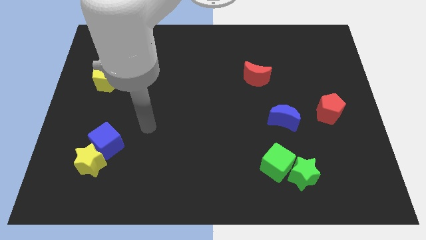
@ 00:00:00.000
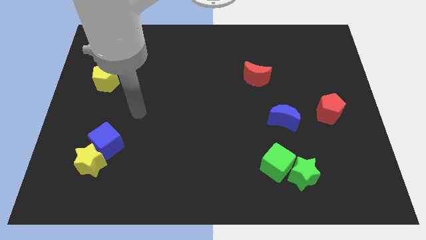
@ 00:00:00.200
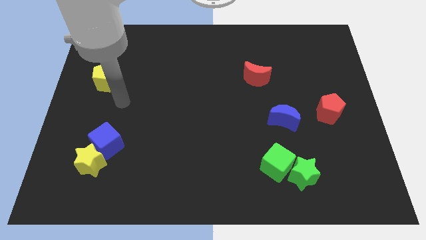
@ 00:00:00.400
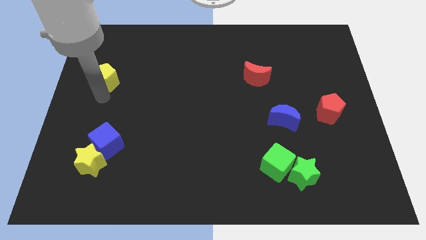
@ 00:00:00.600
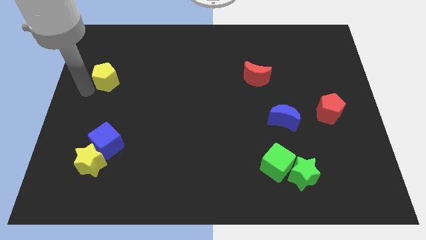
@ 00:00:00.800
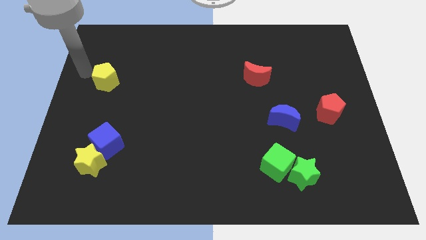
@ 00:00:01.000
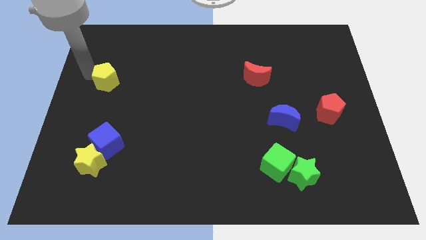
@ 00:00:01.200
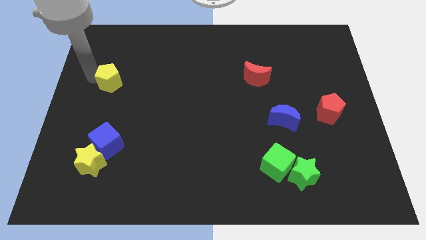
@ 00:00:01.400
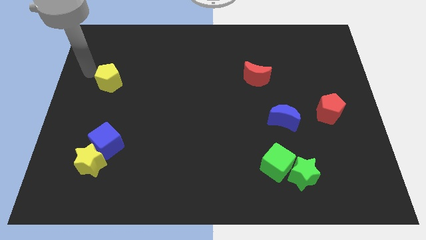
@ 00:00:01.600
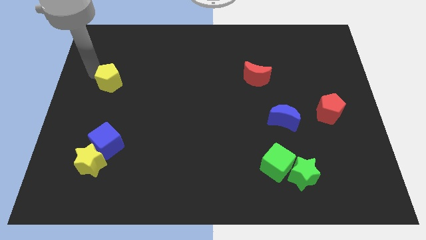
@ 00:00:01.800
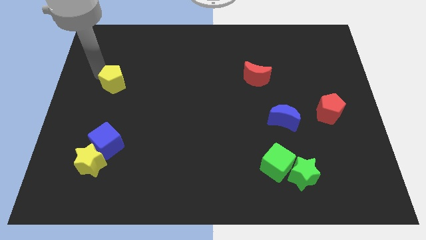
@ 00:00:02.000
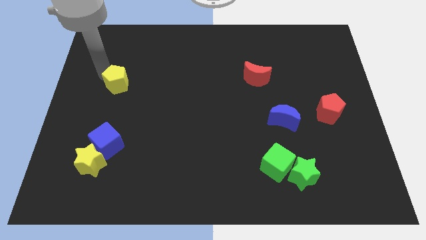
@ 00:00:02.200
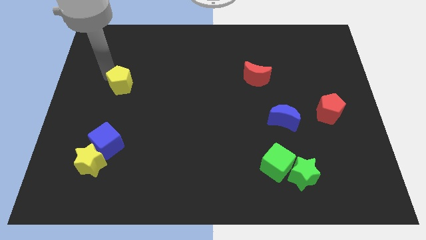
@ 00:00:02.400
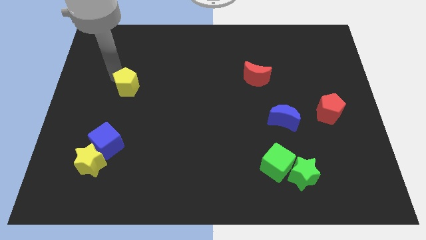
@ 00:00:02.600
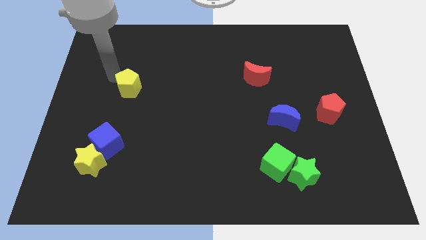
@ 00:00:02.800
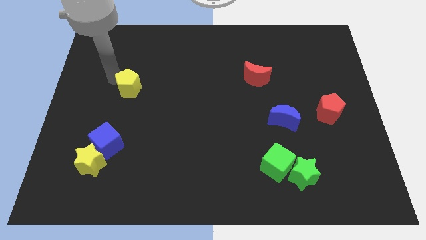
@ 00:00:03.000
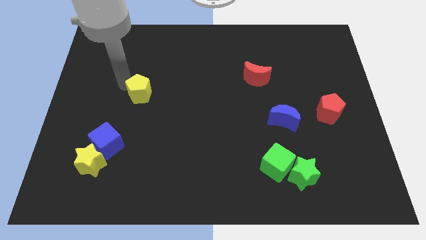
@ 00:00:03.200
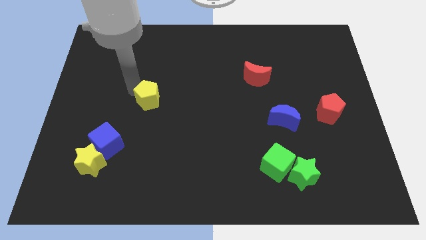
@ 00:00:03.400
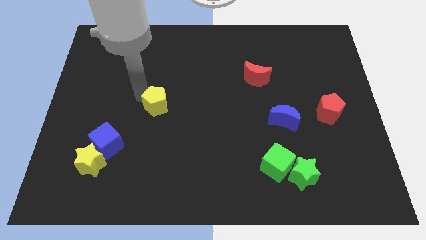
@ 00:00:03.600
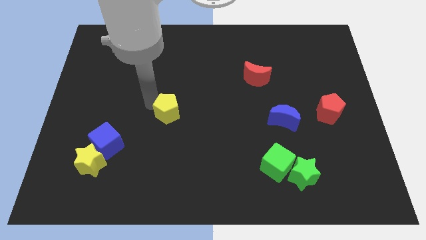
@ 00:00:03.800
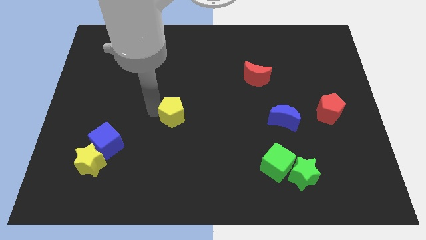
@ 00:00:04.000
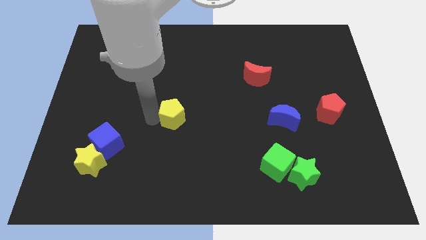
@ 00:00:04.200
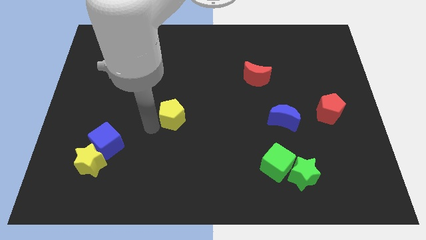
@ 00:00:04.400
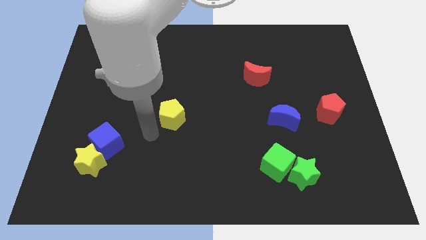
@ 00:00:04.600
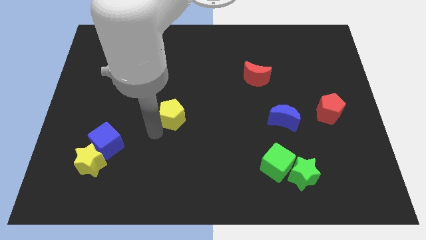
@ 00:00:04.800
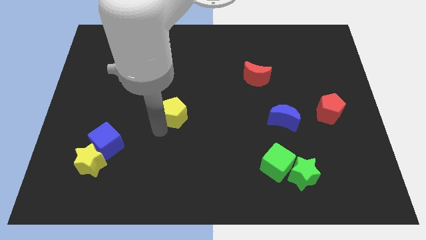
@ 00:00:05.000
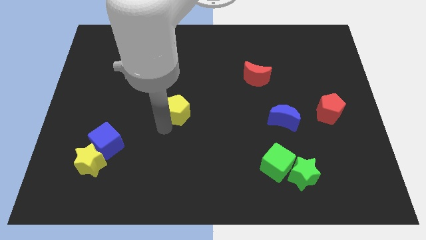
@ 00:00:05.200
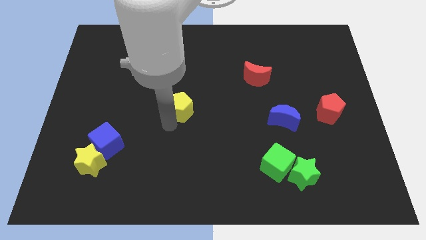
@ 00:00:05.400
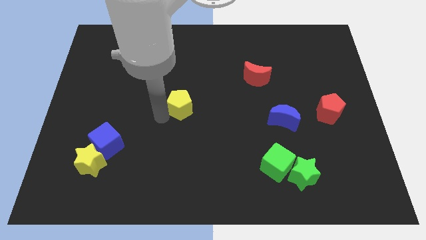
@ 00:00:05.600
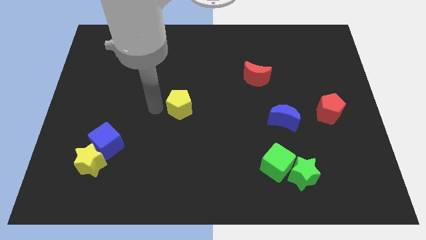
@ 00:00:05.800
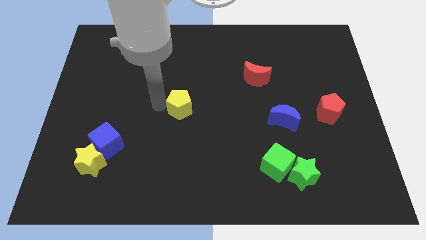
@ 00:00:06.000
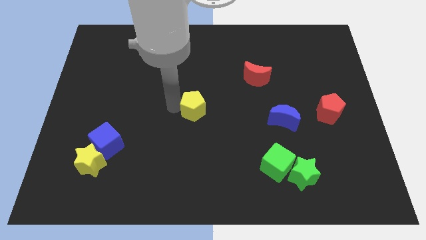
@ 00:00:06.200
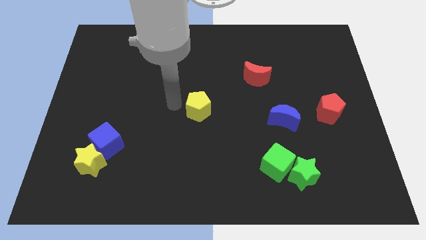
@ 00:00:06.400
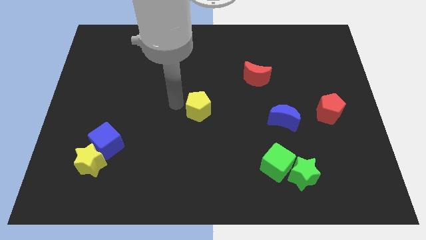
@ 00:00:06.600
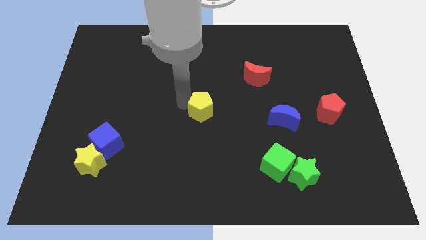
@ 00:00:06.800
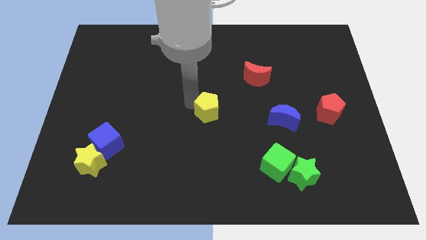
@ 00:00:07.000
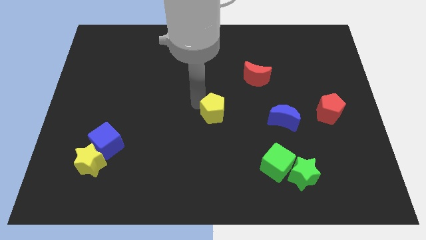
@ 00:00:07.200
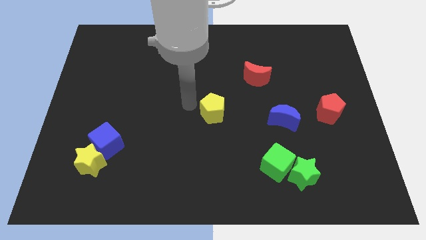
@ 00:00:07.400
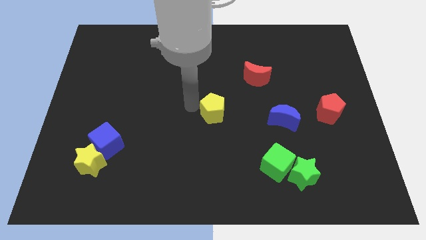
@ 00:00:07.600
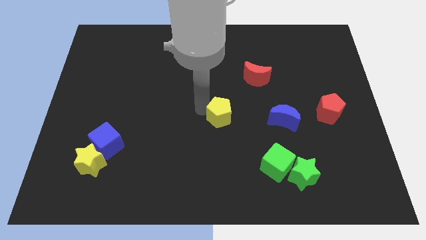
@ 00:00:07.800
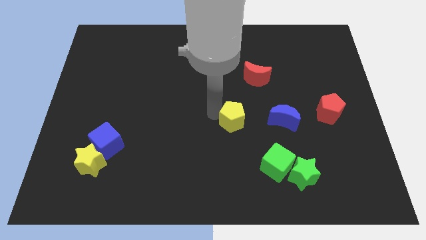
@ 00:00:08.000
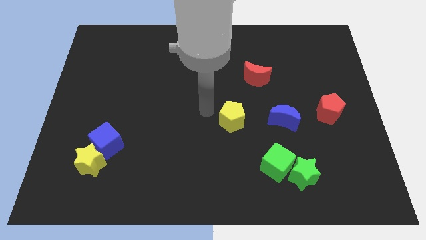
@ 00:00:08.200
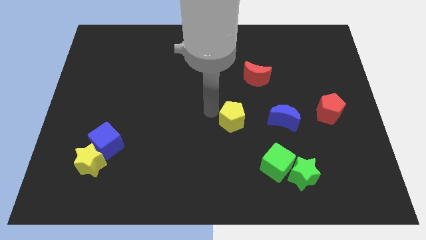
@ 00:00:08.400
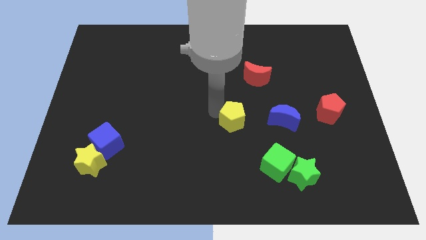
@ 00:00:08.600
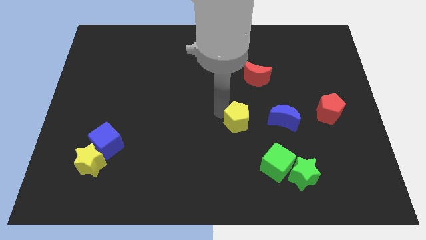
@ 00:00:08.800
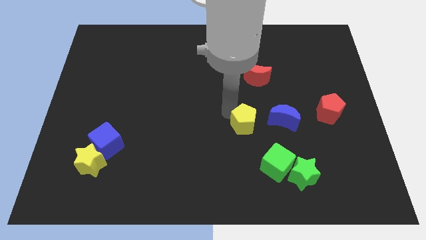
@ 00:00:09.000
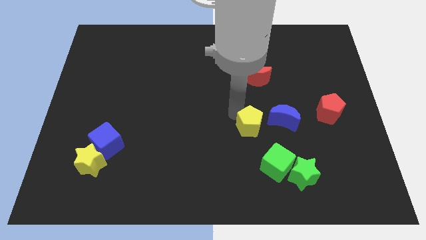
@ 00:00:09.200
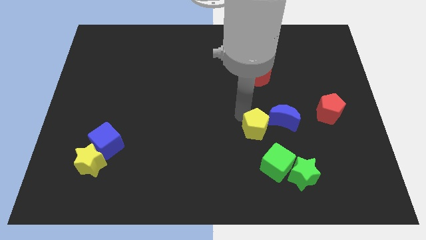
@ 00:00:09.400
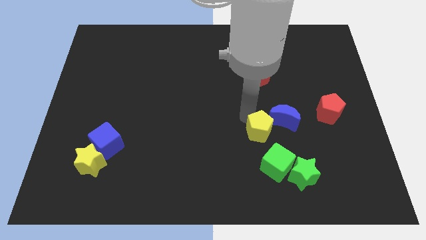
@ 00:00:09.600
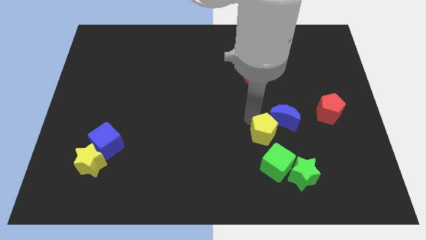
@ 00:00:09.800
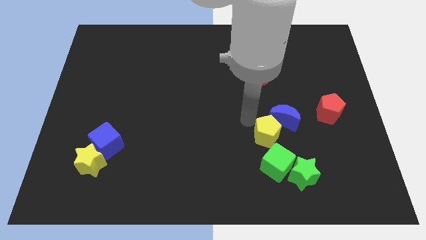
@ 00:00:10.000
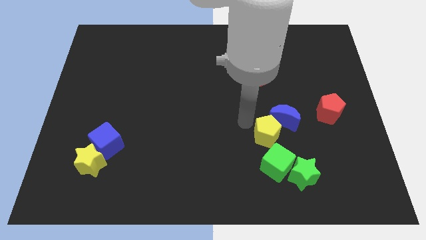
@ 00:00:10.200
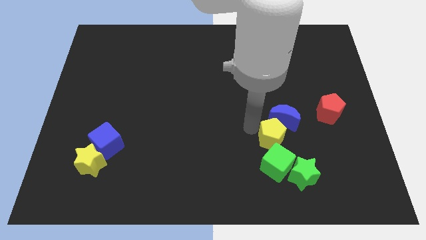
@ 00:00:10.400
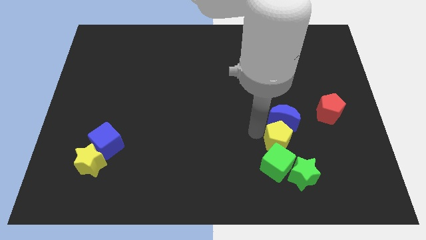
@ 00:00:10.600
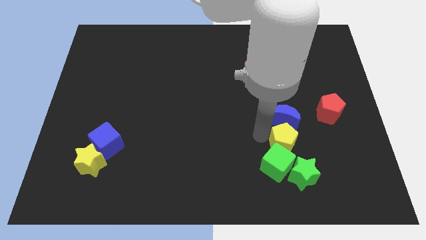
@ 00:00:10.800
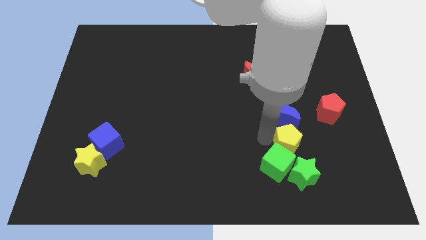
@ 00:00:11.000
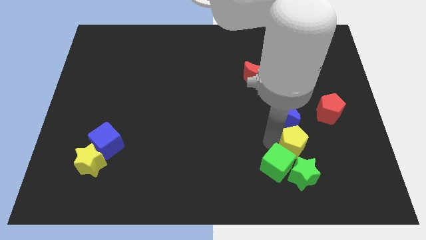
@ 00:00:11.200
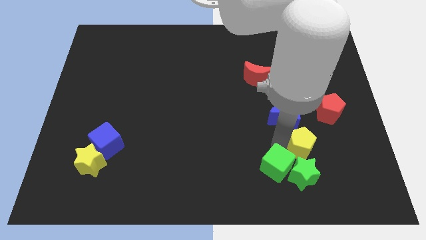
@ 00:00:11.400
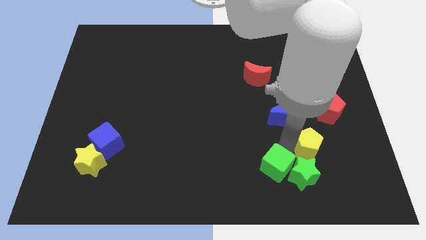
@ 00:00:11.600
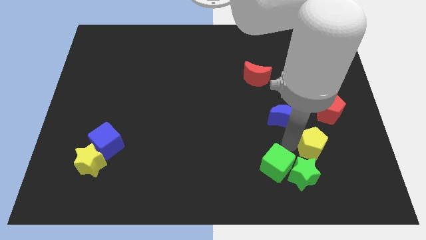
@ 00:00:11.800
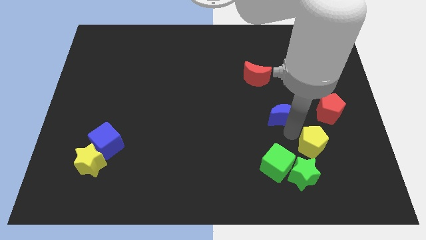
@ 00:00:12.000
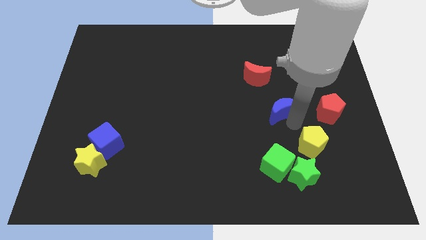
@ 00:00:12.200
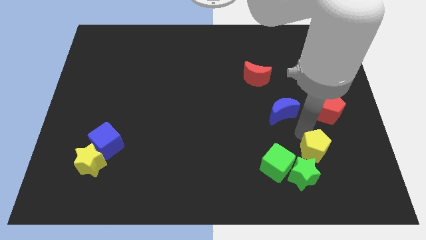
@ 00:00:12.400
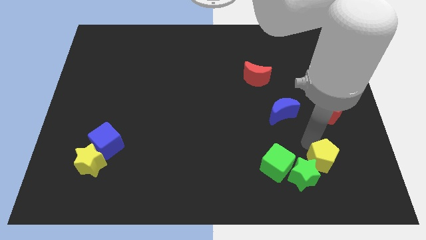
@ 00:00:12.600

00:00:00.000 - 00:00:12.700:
slide the yellow pentagon just right of the green star

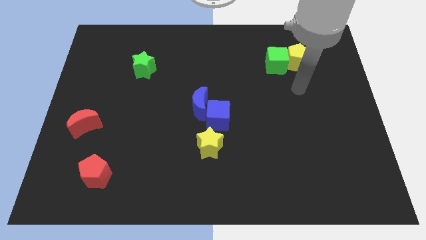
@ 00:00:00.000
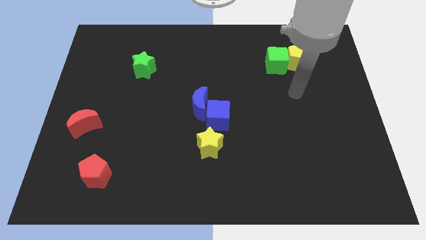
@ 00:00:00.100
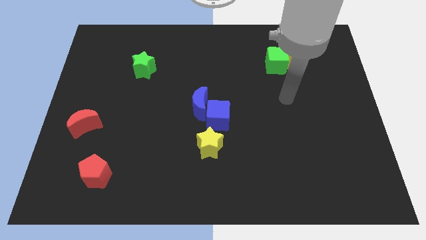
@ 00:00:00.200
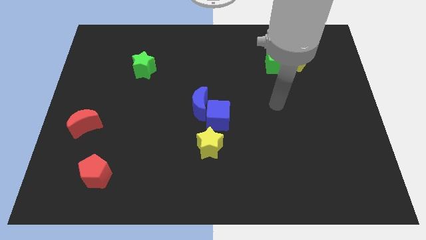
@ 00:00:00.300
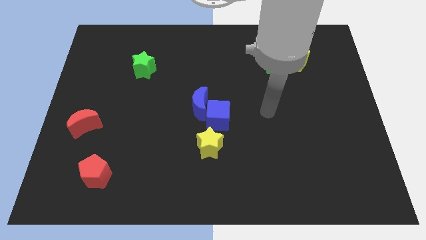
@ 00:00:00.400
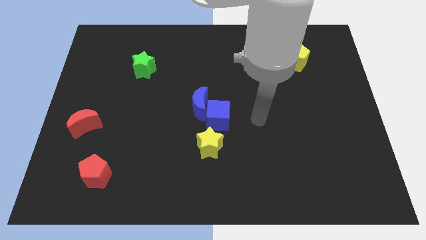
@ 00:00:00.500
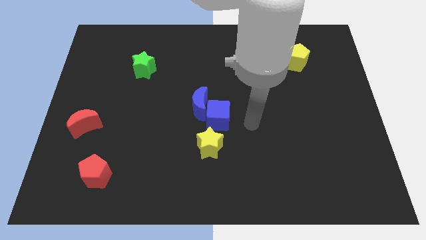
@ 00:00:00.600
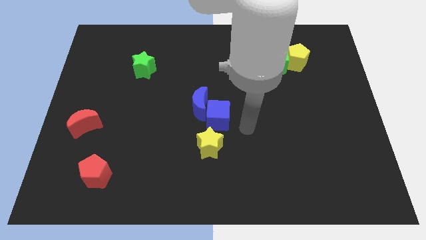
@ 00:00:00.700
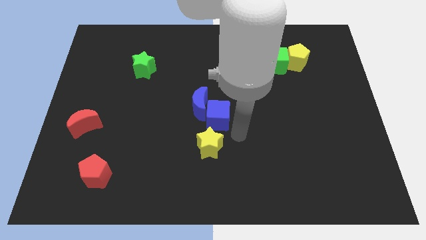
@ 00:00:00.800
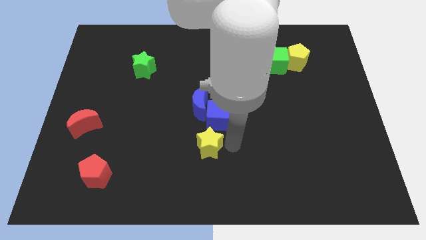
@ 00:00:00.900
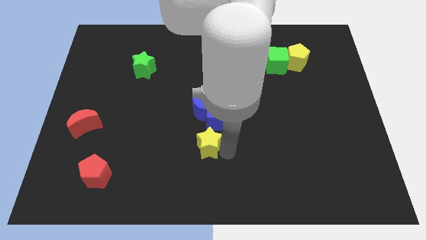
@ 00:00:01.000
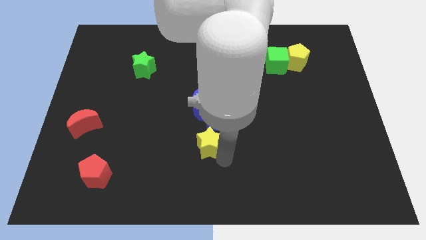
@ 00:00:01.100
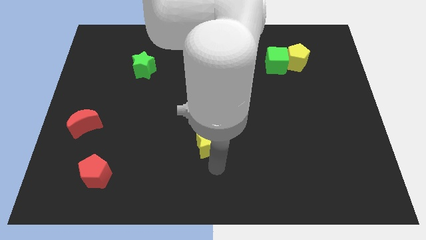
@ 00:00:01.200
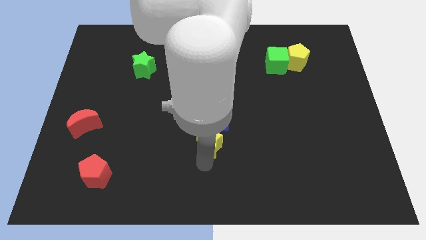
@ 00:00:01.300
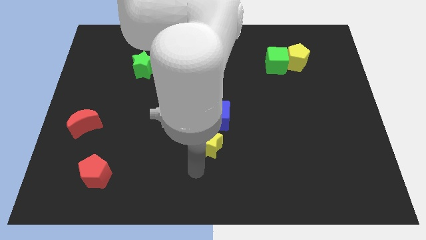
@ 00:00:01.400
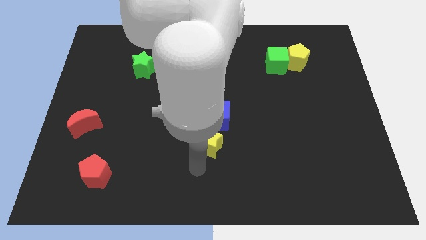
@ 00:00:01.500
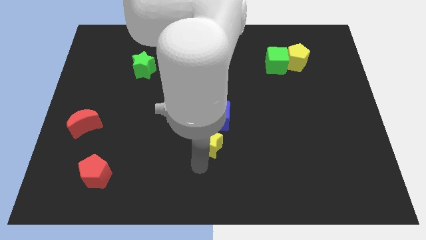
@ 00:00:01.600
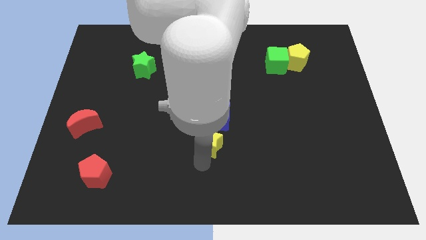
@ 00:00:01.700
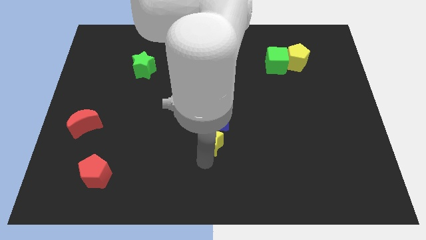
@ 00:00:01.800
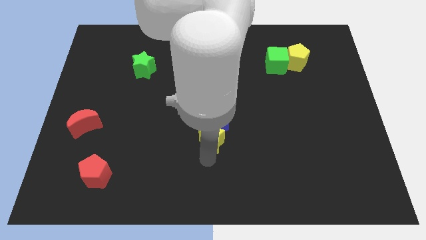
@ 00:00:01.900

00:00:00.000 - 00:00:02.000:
move the yellow star diagonally down and to the right of the blue moon
